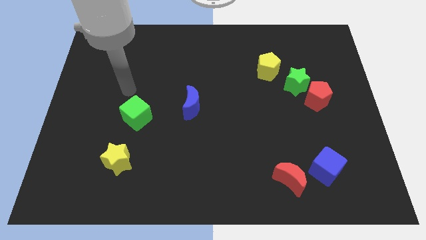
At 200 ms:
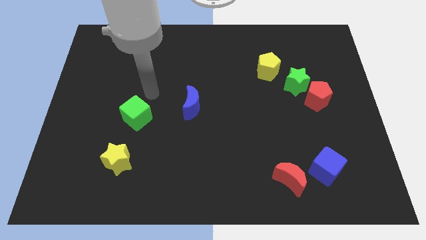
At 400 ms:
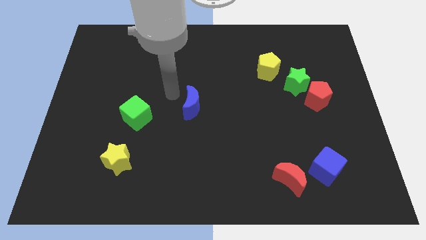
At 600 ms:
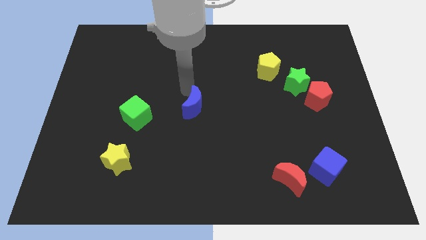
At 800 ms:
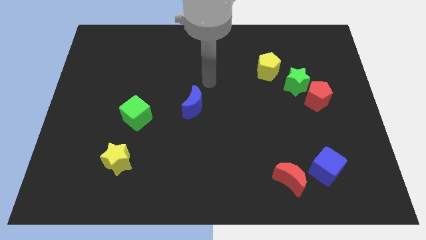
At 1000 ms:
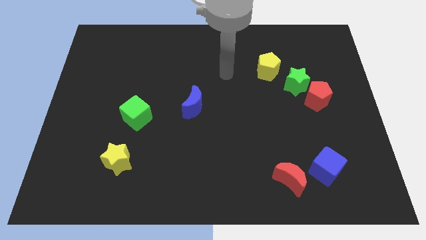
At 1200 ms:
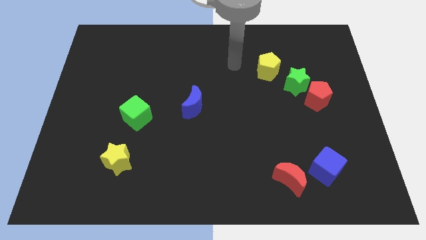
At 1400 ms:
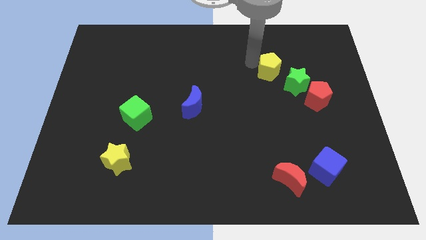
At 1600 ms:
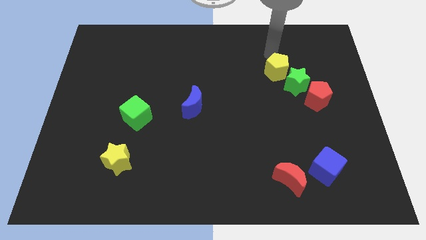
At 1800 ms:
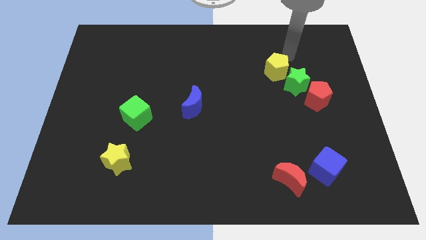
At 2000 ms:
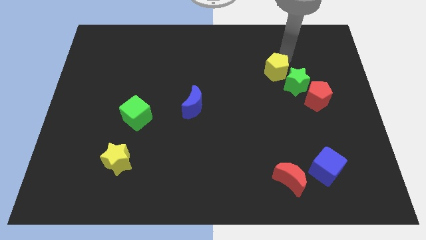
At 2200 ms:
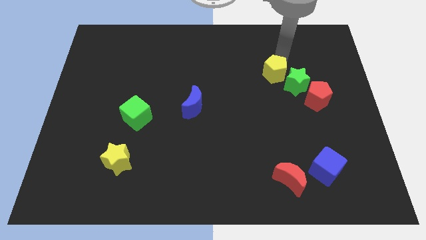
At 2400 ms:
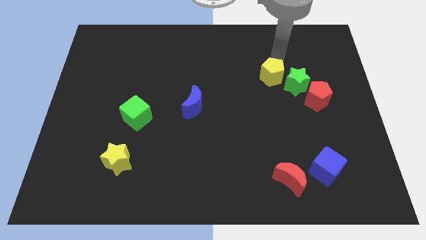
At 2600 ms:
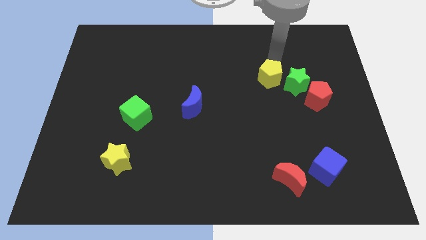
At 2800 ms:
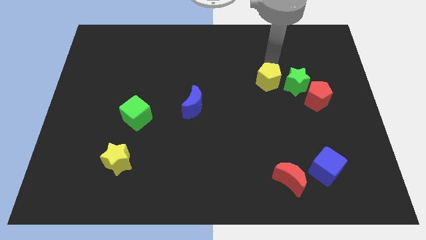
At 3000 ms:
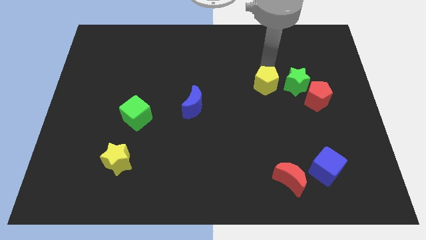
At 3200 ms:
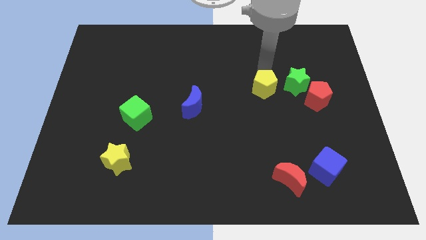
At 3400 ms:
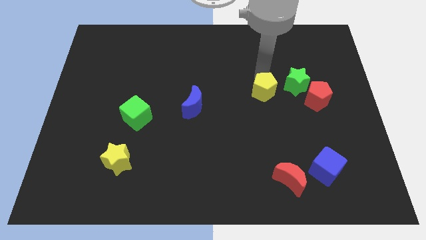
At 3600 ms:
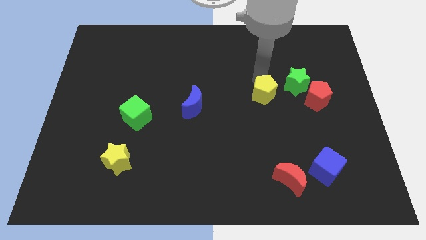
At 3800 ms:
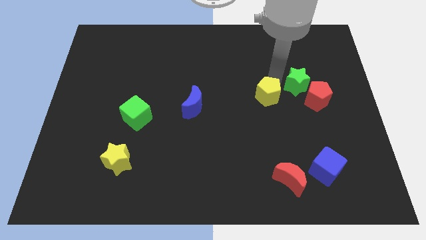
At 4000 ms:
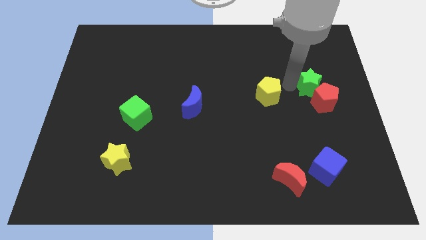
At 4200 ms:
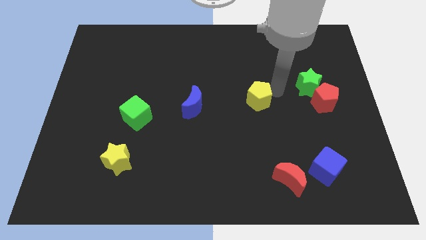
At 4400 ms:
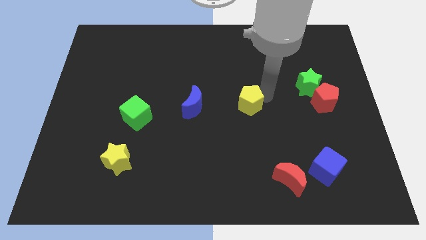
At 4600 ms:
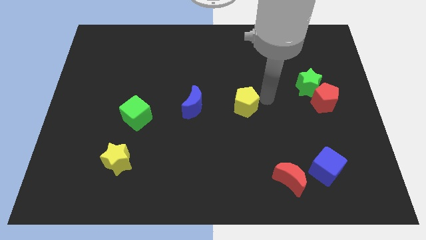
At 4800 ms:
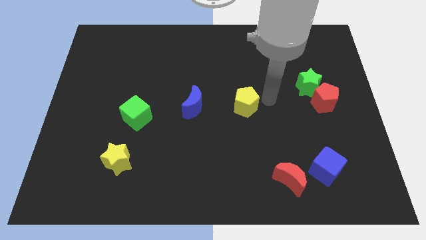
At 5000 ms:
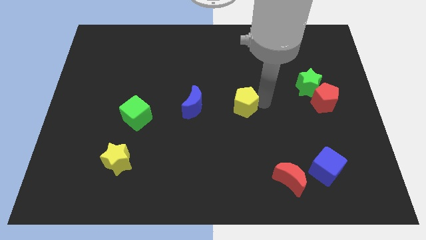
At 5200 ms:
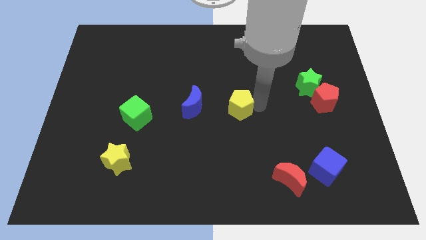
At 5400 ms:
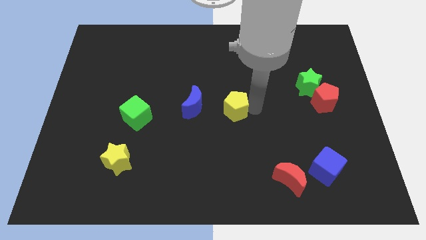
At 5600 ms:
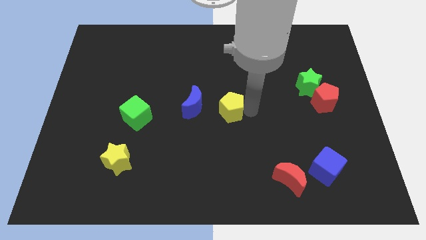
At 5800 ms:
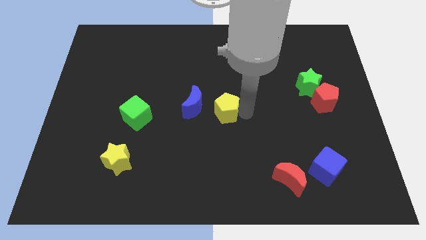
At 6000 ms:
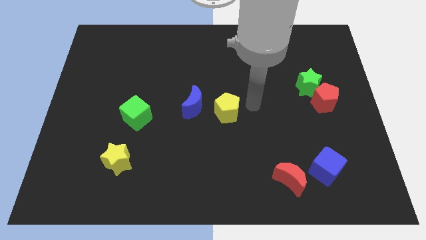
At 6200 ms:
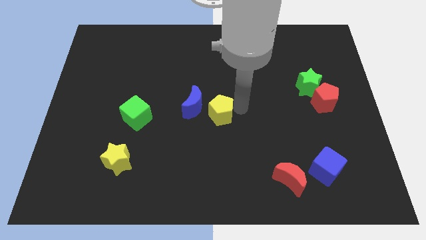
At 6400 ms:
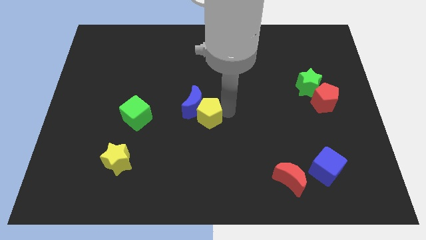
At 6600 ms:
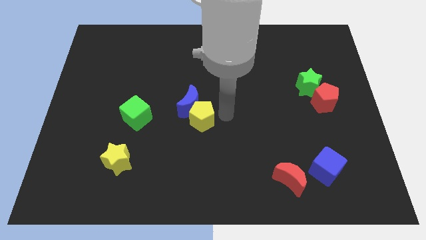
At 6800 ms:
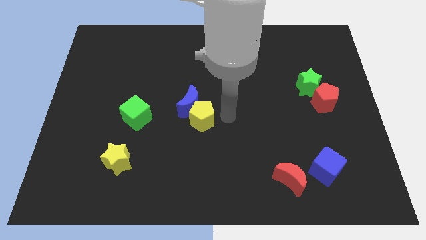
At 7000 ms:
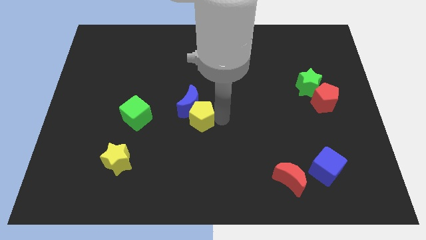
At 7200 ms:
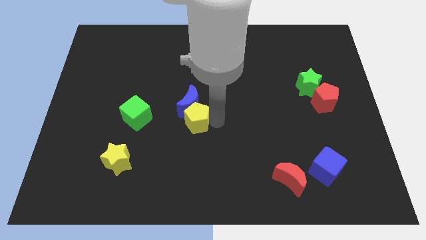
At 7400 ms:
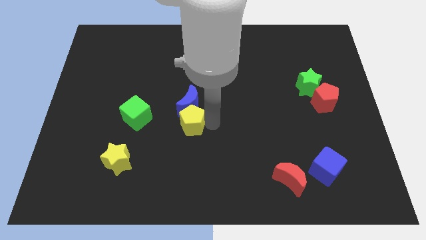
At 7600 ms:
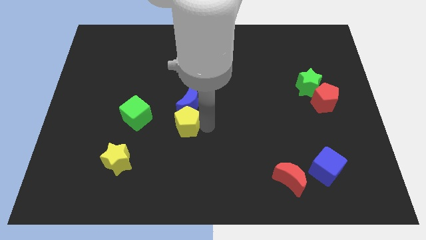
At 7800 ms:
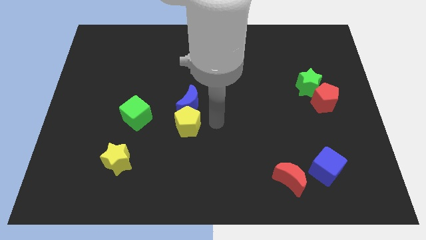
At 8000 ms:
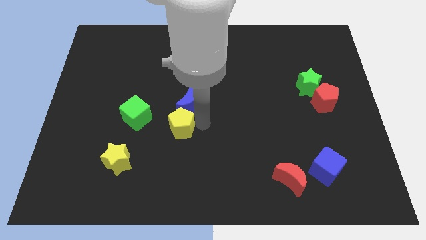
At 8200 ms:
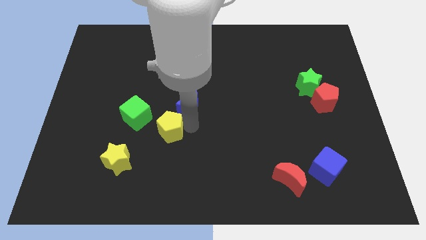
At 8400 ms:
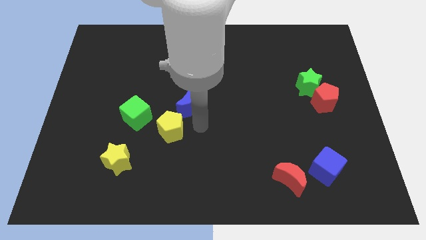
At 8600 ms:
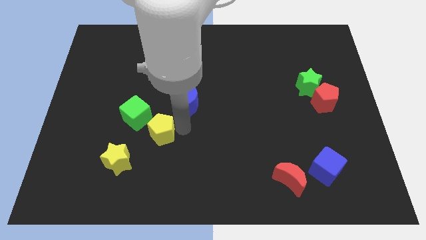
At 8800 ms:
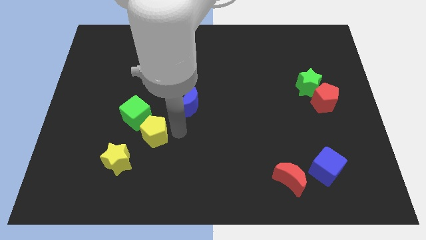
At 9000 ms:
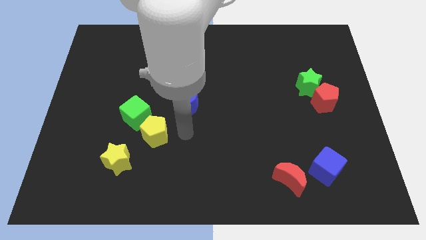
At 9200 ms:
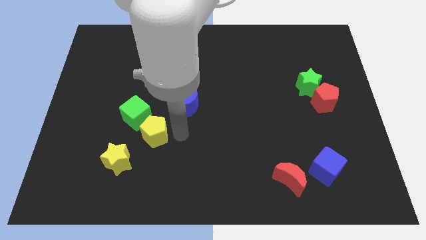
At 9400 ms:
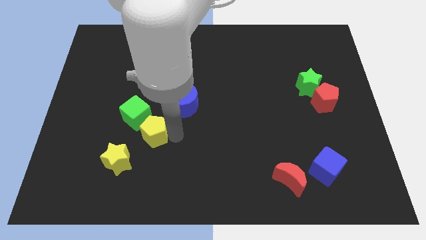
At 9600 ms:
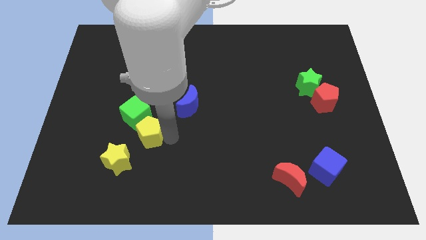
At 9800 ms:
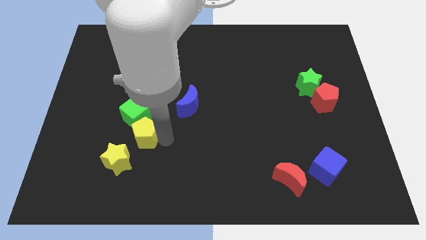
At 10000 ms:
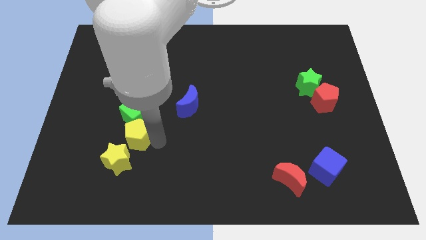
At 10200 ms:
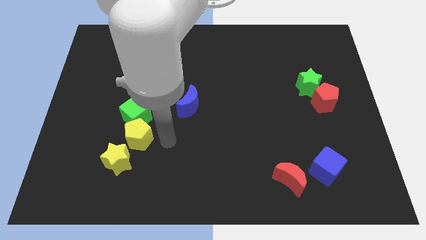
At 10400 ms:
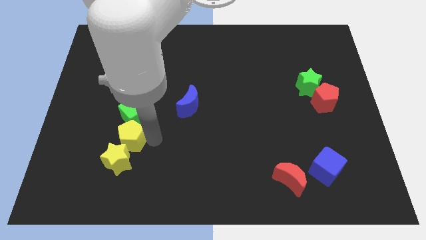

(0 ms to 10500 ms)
move the yellow pentagon diagonally down and to the left of the green cube

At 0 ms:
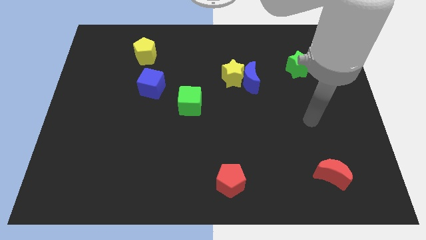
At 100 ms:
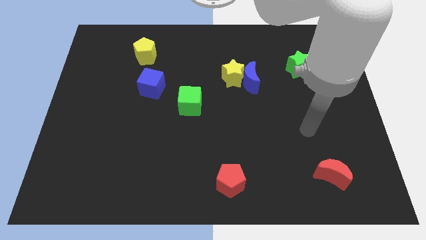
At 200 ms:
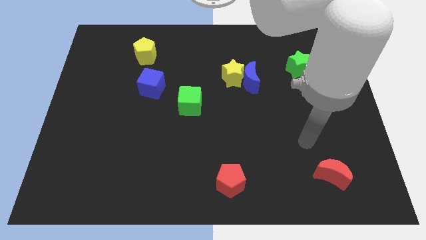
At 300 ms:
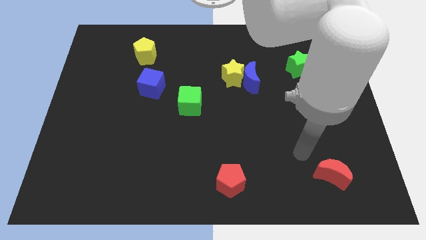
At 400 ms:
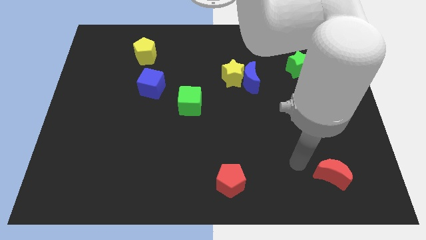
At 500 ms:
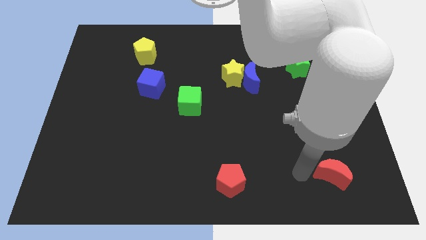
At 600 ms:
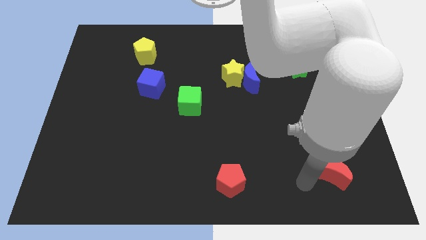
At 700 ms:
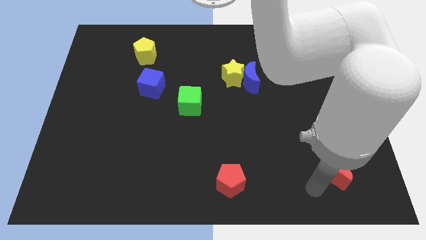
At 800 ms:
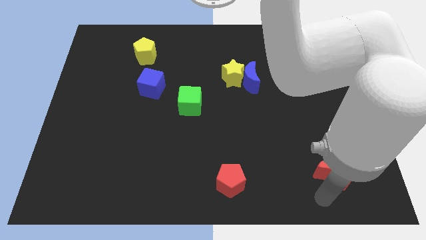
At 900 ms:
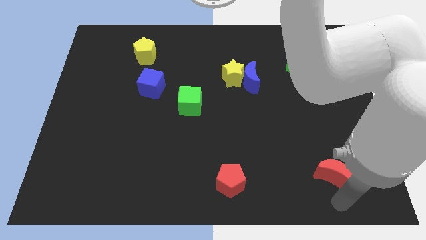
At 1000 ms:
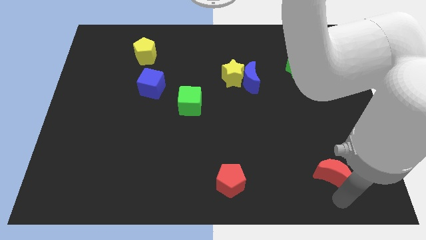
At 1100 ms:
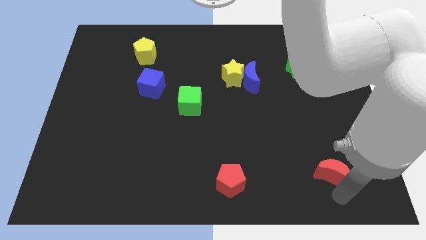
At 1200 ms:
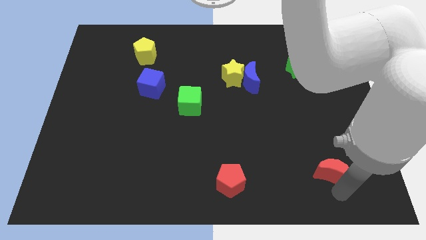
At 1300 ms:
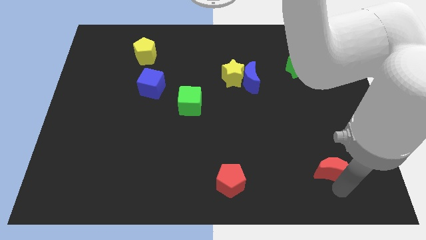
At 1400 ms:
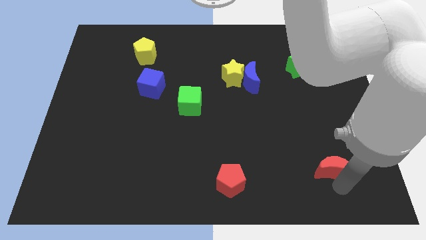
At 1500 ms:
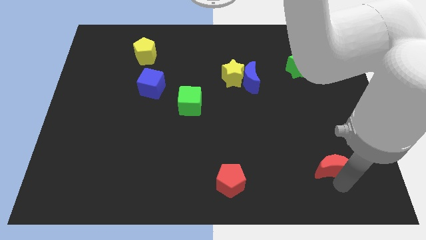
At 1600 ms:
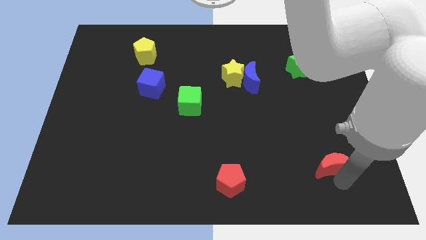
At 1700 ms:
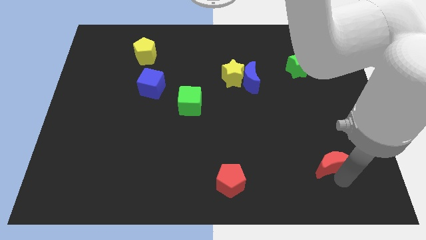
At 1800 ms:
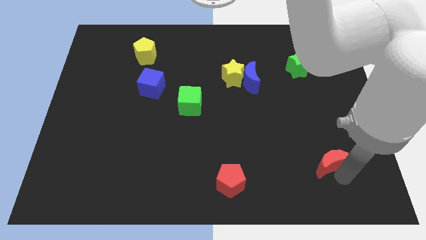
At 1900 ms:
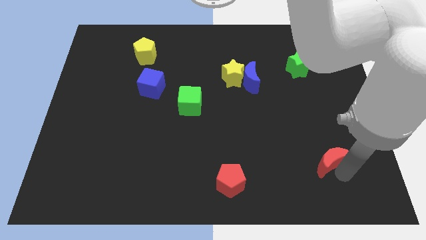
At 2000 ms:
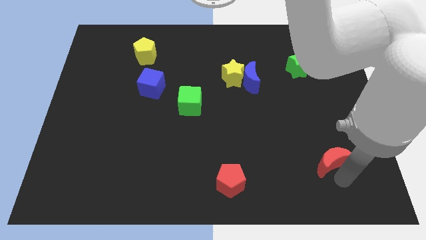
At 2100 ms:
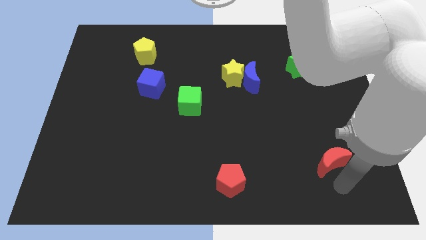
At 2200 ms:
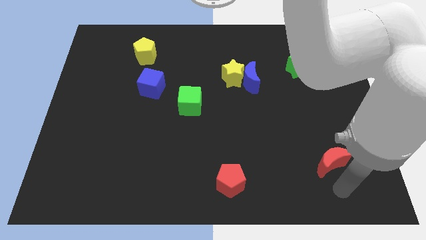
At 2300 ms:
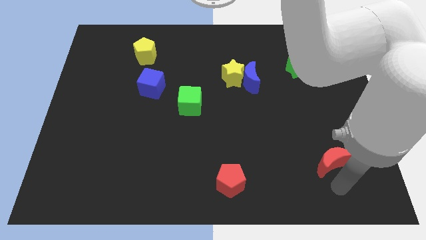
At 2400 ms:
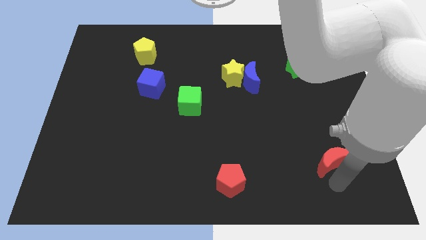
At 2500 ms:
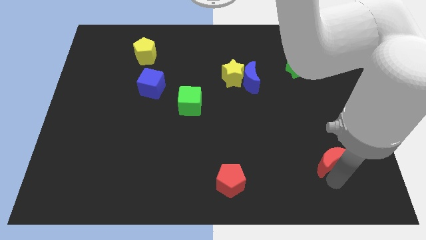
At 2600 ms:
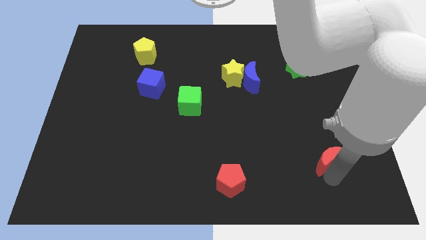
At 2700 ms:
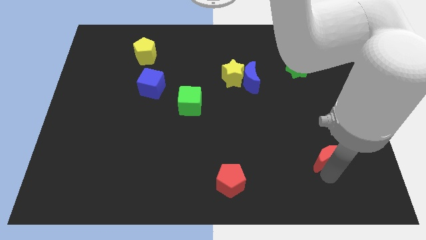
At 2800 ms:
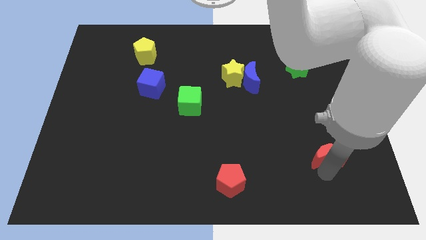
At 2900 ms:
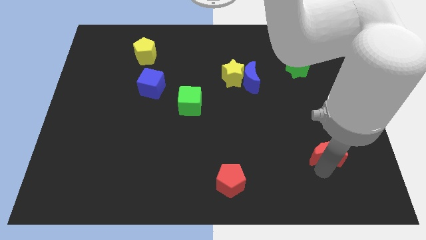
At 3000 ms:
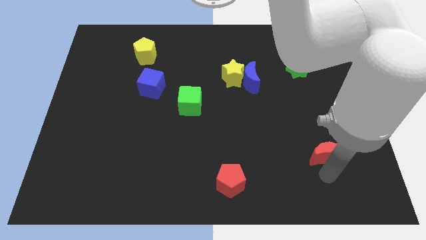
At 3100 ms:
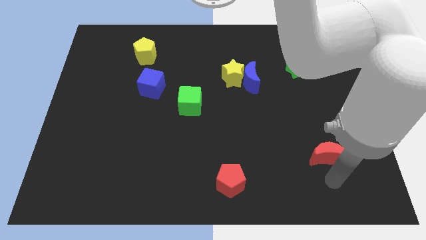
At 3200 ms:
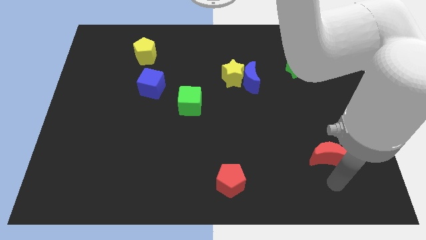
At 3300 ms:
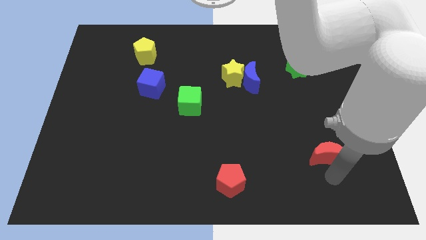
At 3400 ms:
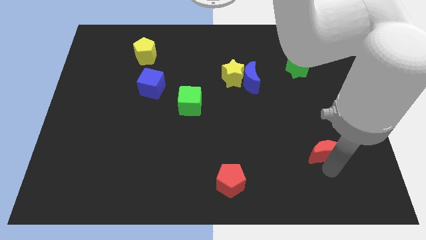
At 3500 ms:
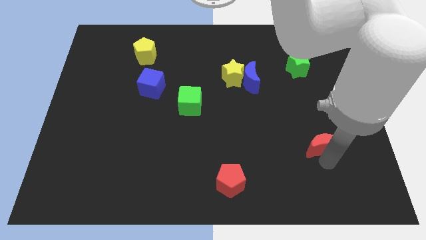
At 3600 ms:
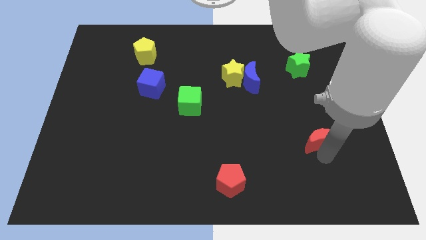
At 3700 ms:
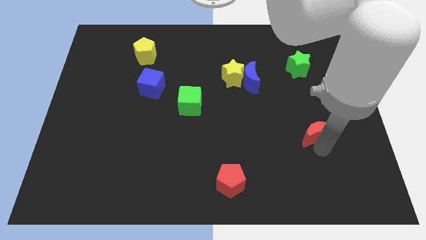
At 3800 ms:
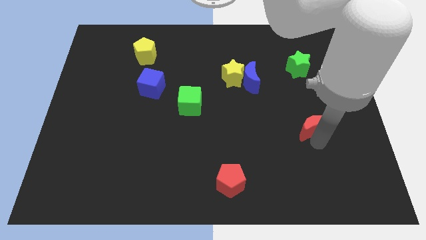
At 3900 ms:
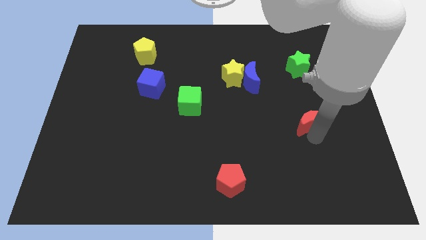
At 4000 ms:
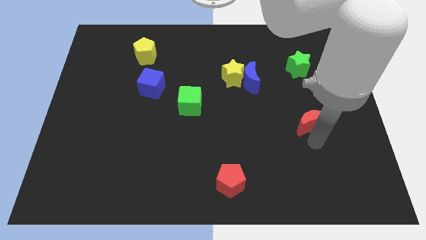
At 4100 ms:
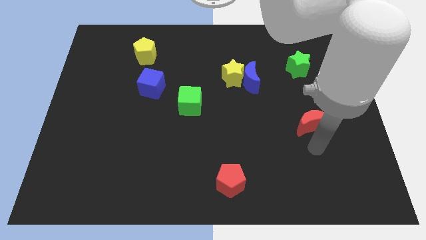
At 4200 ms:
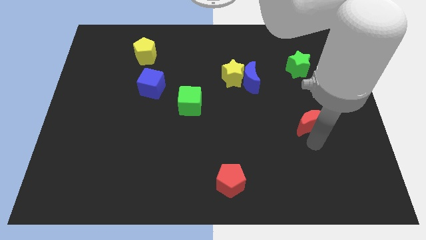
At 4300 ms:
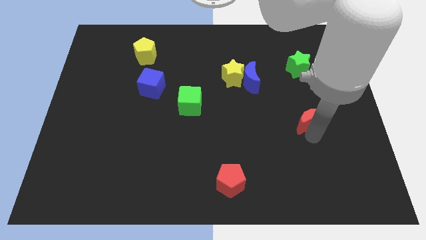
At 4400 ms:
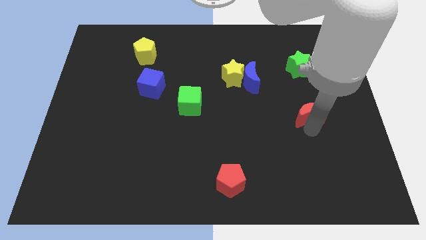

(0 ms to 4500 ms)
move the red moon to the bottom of the green star
